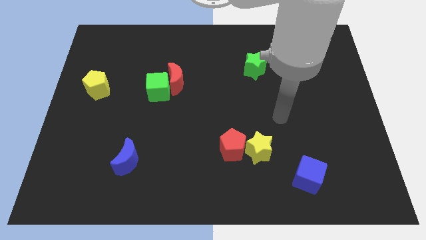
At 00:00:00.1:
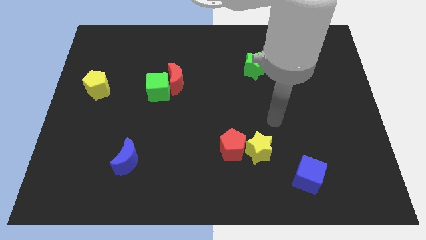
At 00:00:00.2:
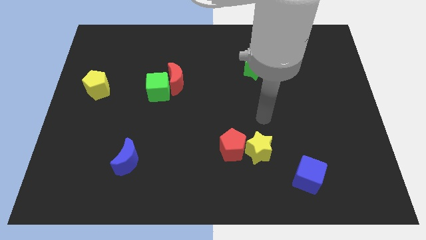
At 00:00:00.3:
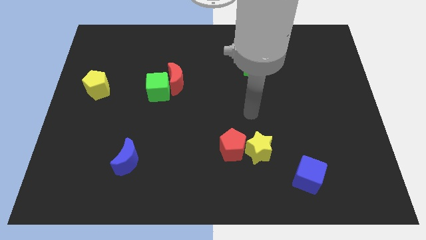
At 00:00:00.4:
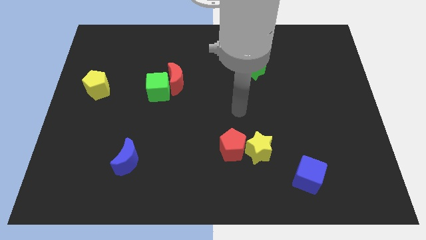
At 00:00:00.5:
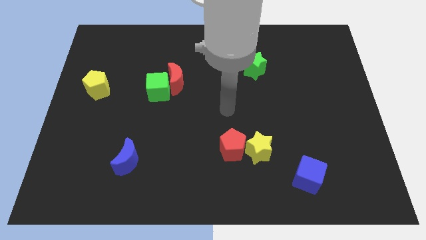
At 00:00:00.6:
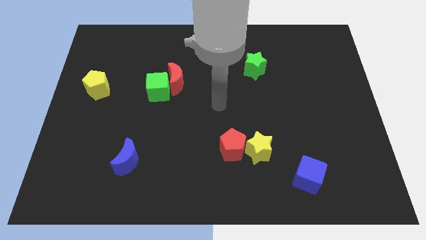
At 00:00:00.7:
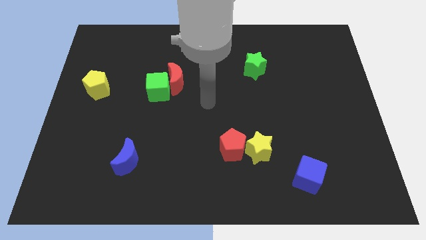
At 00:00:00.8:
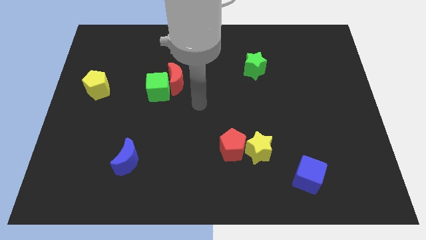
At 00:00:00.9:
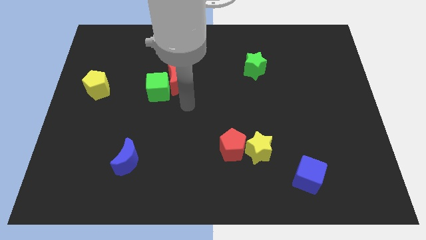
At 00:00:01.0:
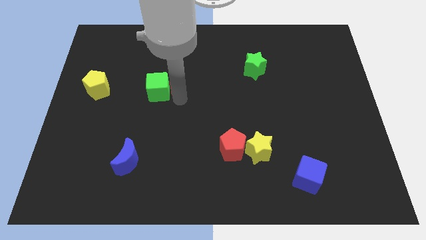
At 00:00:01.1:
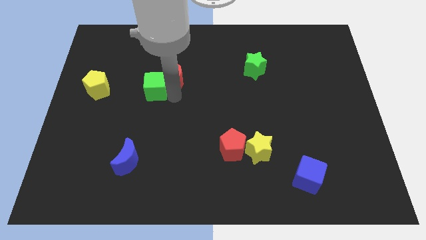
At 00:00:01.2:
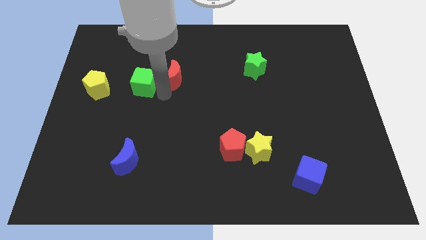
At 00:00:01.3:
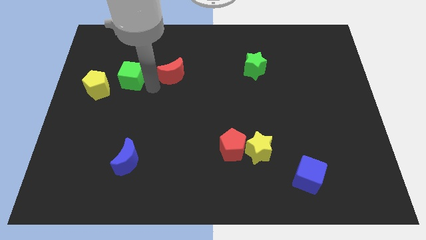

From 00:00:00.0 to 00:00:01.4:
separate the red moon from the green cube

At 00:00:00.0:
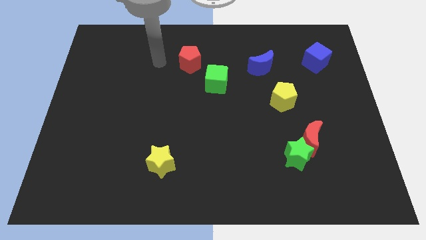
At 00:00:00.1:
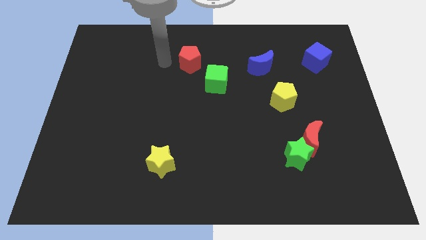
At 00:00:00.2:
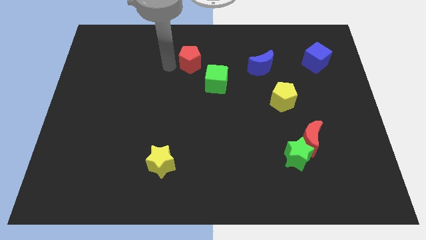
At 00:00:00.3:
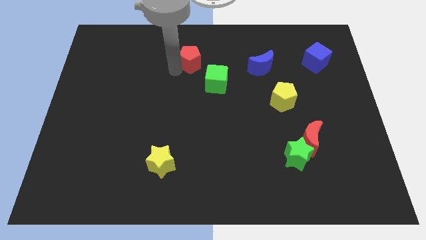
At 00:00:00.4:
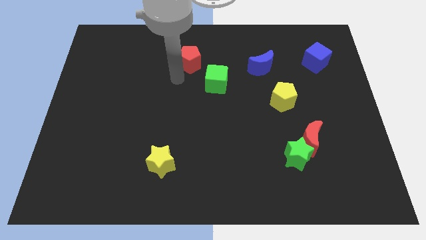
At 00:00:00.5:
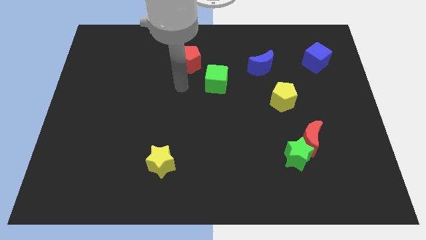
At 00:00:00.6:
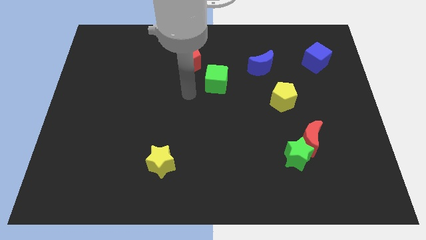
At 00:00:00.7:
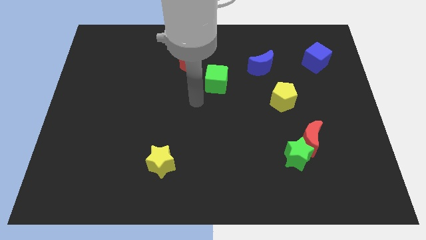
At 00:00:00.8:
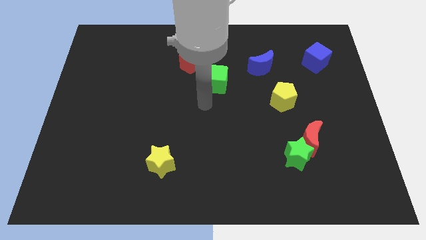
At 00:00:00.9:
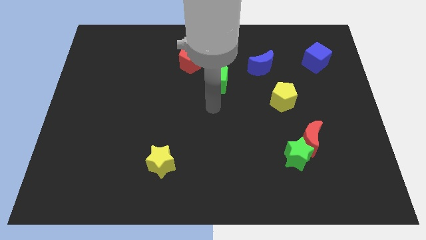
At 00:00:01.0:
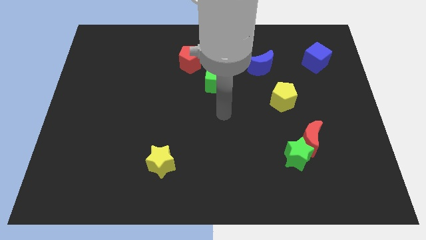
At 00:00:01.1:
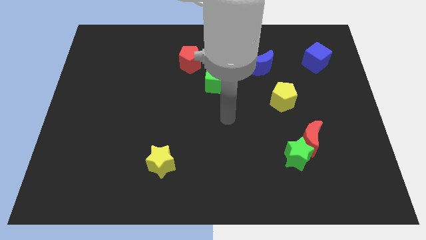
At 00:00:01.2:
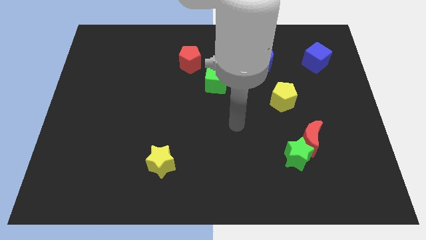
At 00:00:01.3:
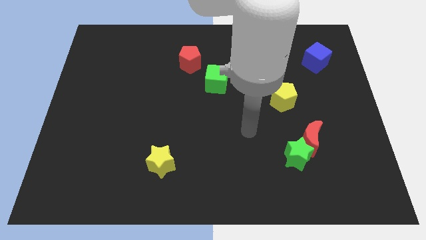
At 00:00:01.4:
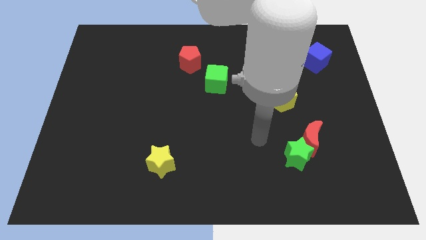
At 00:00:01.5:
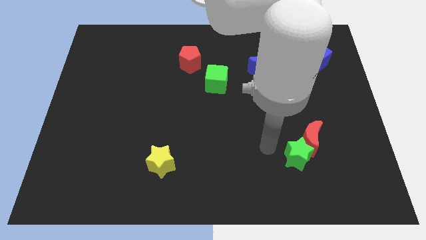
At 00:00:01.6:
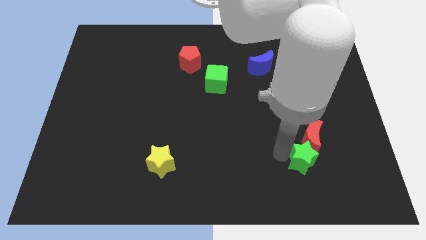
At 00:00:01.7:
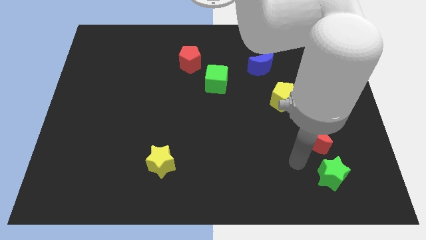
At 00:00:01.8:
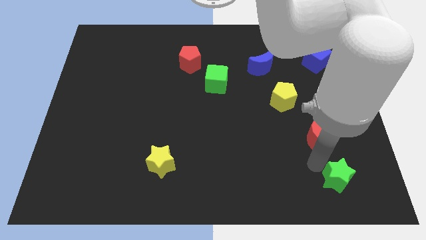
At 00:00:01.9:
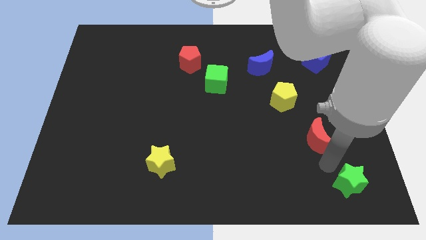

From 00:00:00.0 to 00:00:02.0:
pull the red moon apart from the green star

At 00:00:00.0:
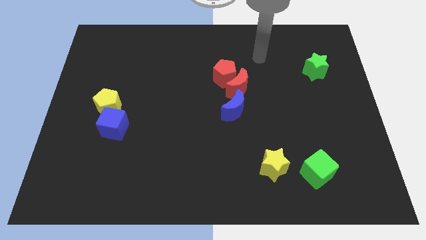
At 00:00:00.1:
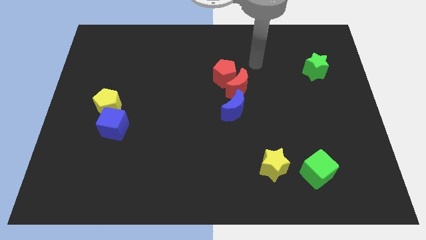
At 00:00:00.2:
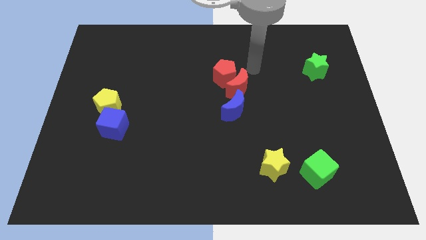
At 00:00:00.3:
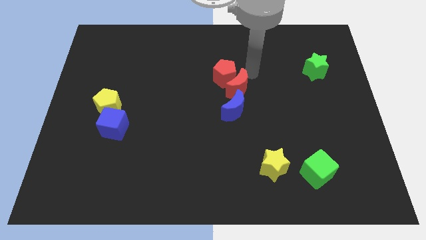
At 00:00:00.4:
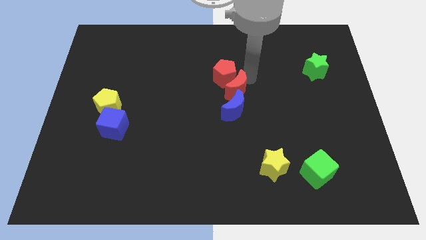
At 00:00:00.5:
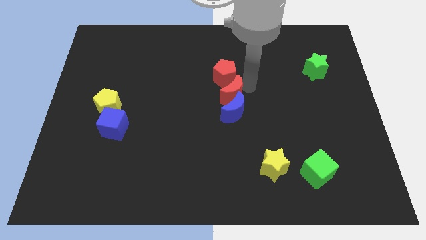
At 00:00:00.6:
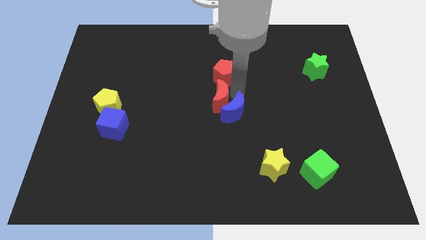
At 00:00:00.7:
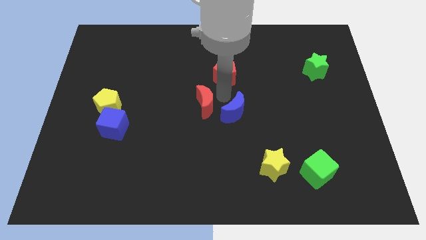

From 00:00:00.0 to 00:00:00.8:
separate the red pentagon from the red moon

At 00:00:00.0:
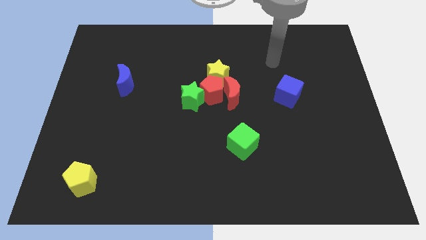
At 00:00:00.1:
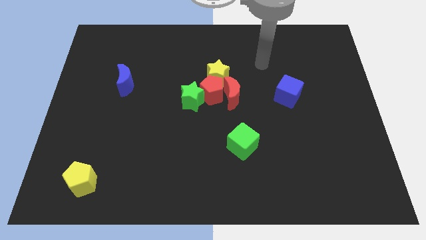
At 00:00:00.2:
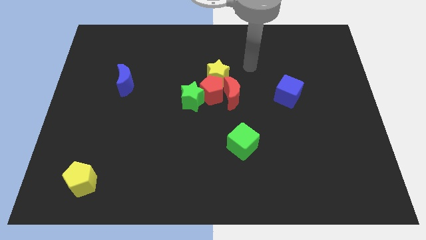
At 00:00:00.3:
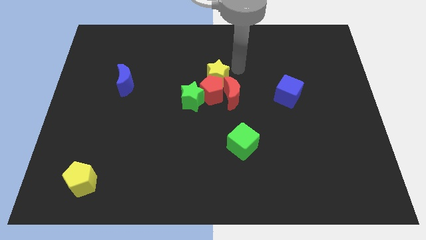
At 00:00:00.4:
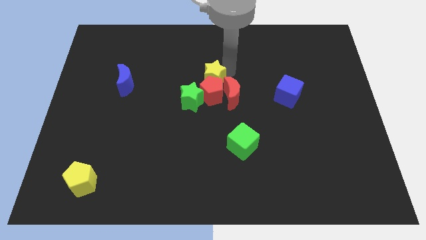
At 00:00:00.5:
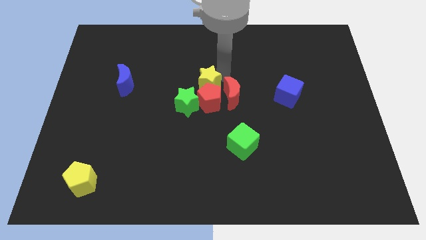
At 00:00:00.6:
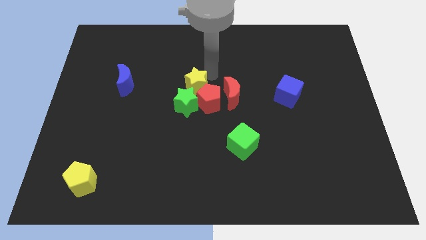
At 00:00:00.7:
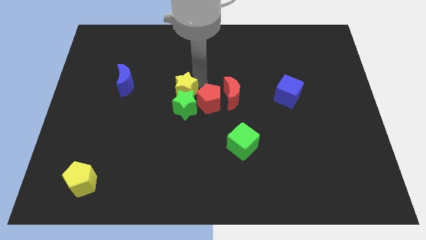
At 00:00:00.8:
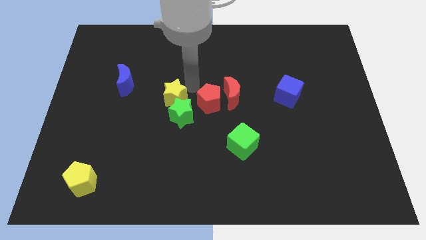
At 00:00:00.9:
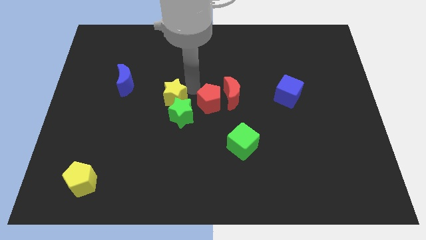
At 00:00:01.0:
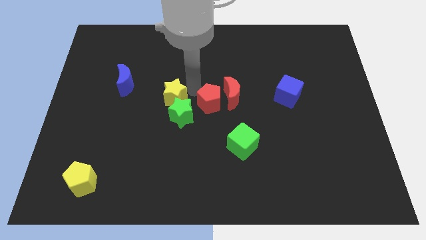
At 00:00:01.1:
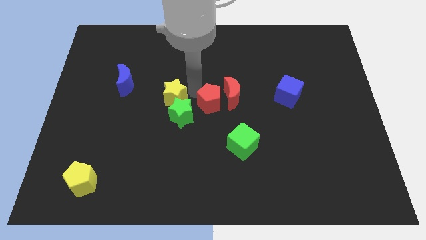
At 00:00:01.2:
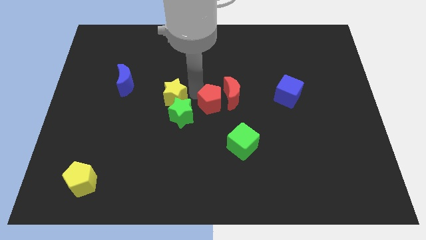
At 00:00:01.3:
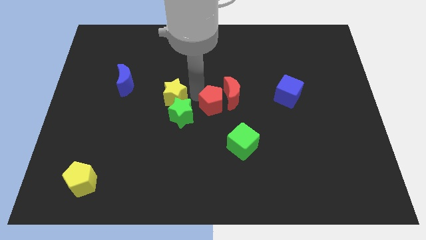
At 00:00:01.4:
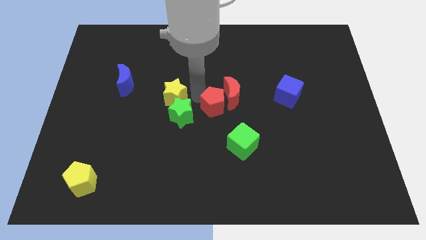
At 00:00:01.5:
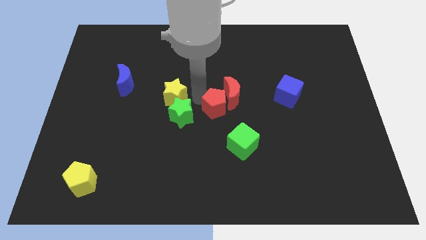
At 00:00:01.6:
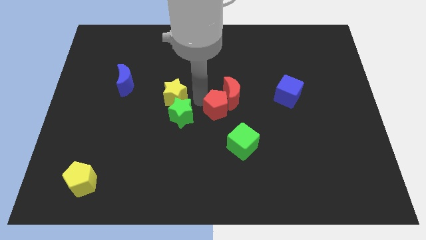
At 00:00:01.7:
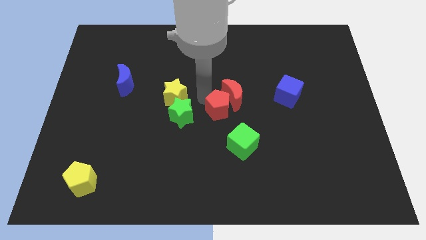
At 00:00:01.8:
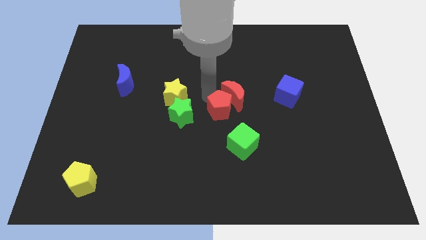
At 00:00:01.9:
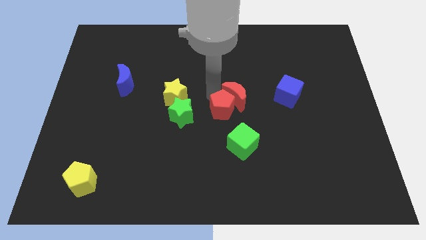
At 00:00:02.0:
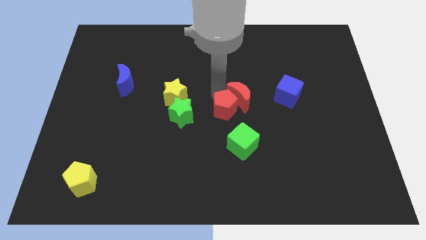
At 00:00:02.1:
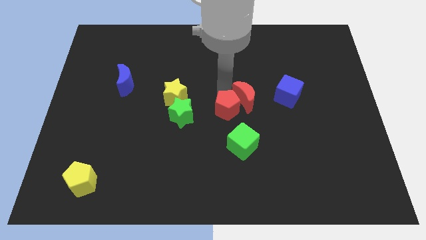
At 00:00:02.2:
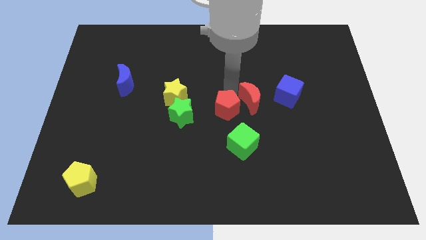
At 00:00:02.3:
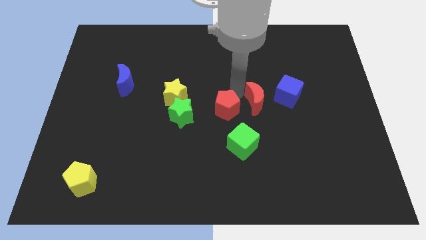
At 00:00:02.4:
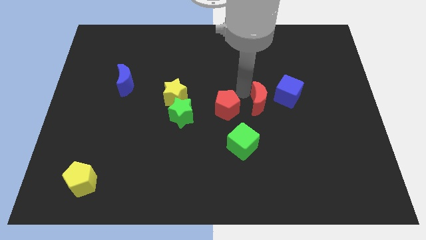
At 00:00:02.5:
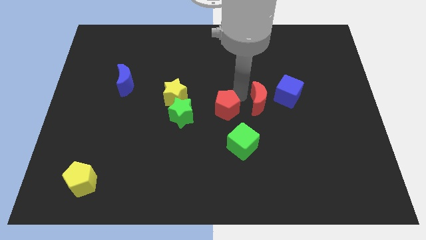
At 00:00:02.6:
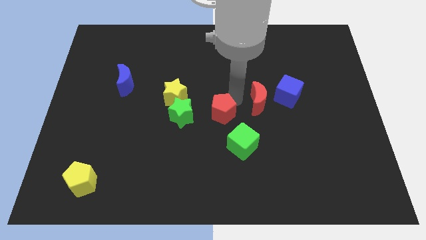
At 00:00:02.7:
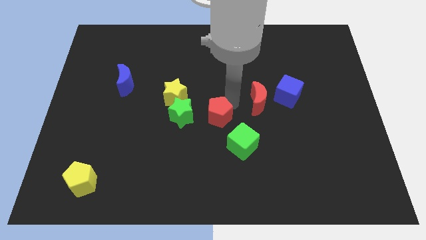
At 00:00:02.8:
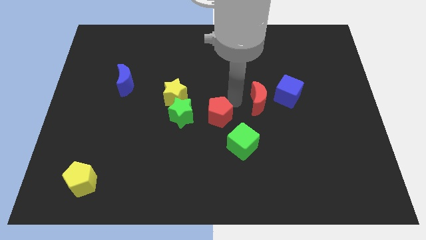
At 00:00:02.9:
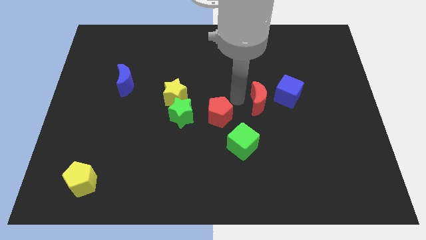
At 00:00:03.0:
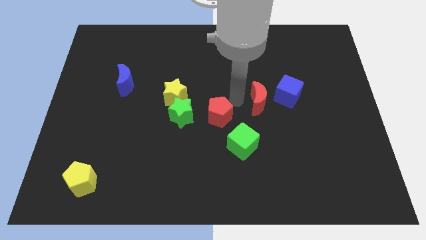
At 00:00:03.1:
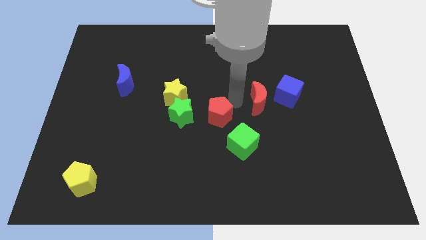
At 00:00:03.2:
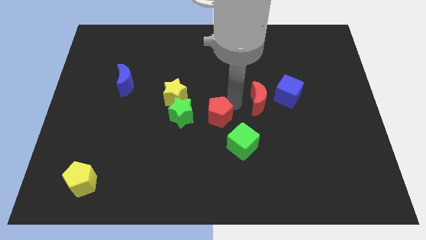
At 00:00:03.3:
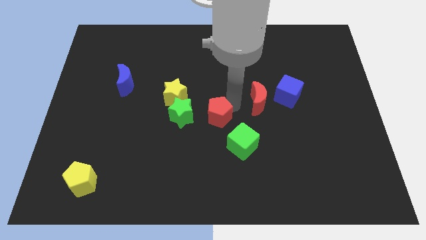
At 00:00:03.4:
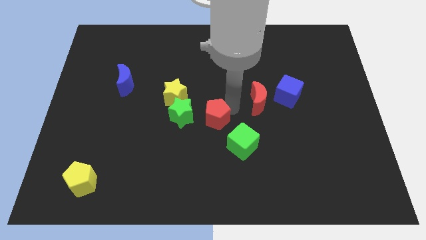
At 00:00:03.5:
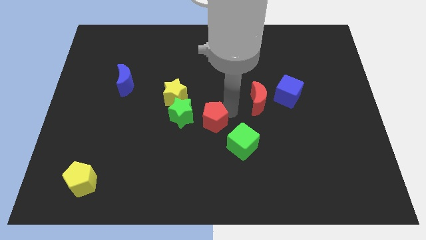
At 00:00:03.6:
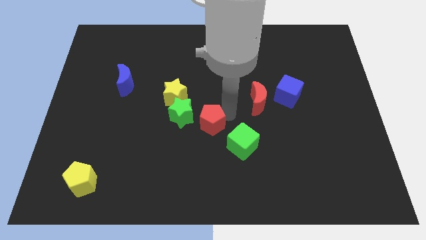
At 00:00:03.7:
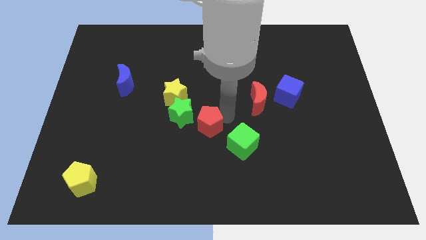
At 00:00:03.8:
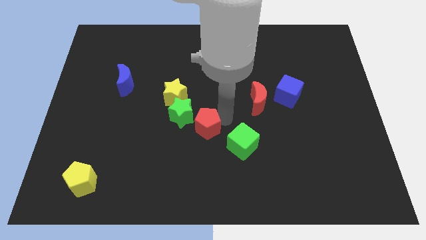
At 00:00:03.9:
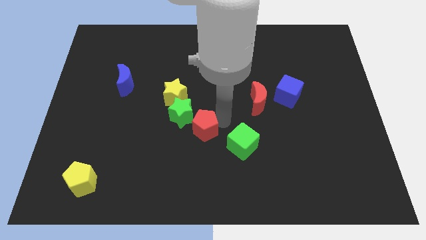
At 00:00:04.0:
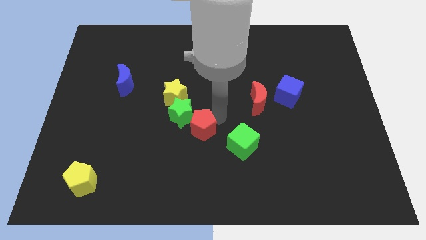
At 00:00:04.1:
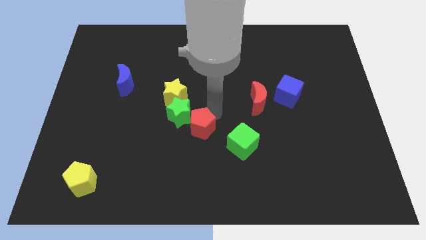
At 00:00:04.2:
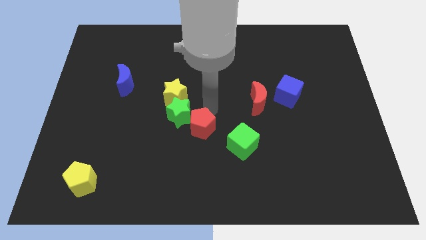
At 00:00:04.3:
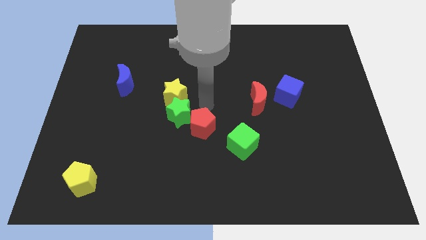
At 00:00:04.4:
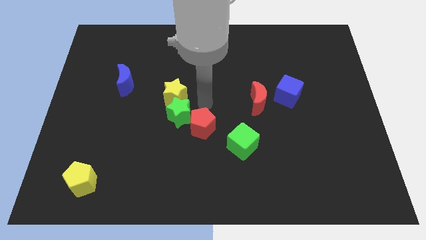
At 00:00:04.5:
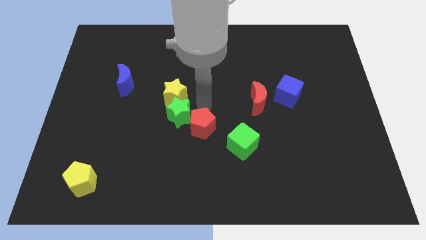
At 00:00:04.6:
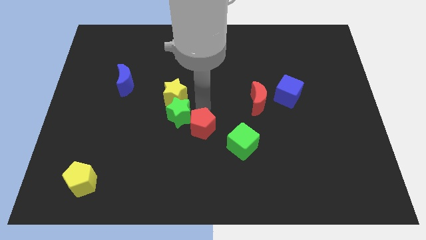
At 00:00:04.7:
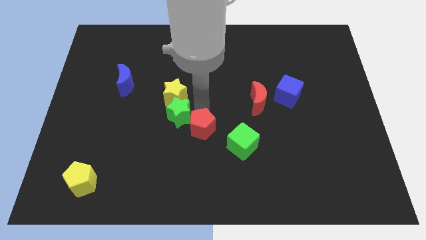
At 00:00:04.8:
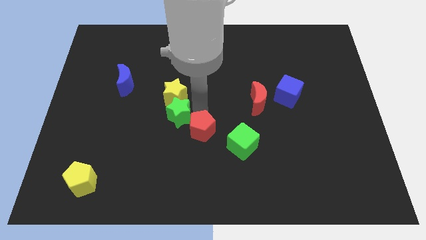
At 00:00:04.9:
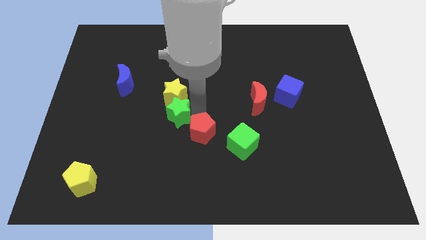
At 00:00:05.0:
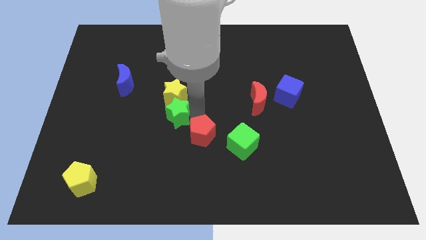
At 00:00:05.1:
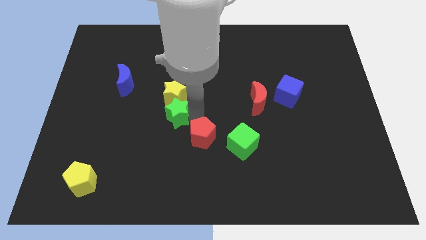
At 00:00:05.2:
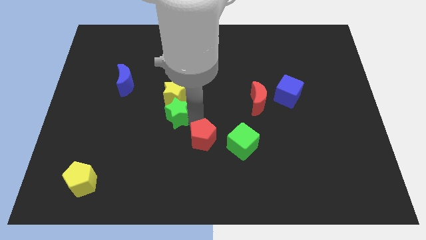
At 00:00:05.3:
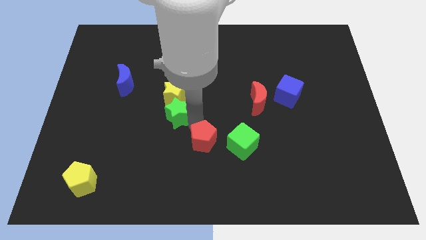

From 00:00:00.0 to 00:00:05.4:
move the red pentagon away from the red moon, green star, and yellow star
